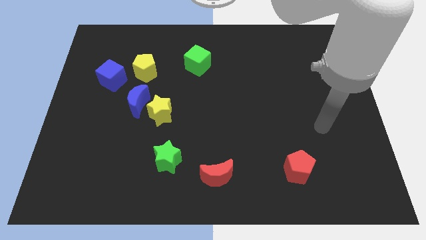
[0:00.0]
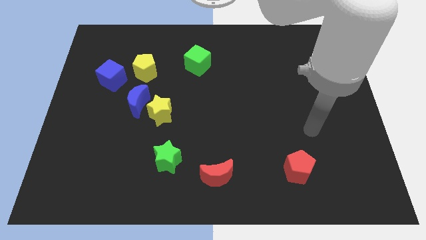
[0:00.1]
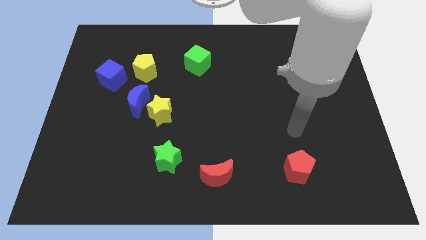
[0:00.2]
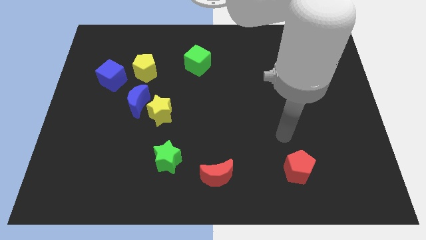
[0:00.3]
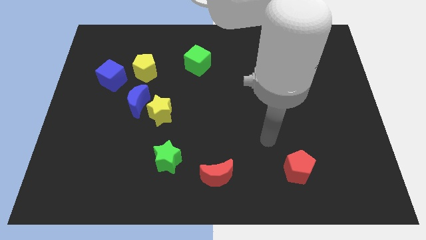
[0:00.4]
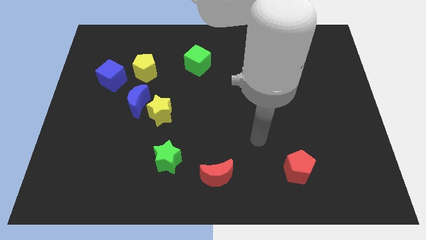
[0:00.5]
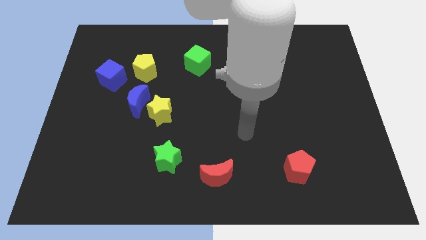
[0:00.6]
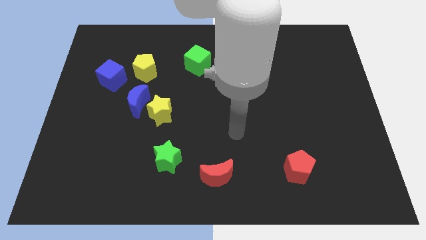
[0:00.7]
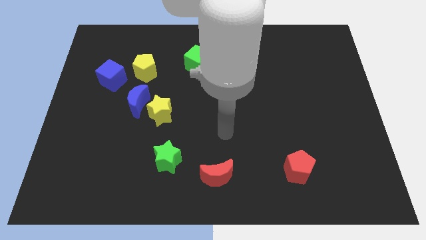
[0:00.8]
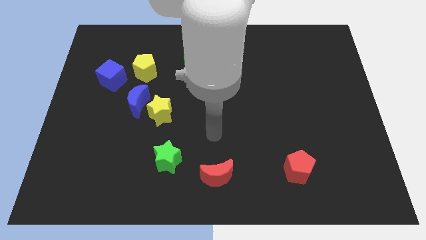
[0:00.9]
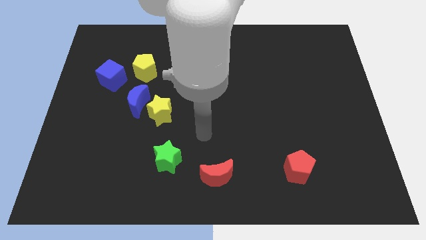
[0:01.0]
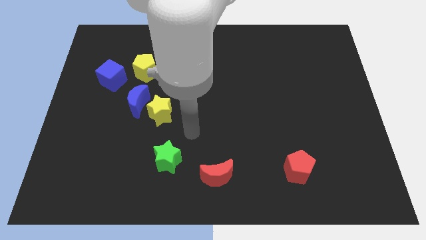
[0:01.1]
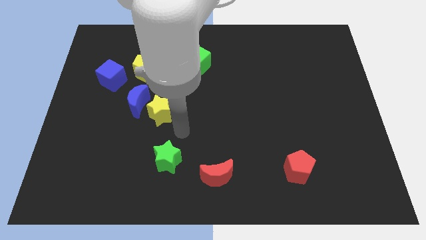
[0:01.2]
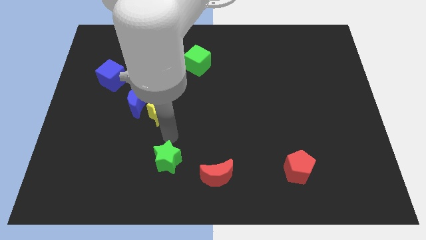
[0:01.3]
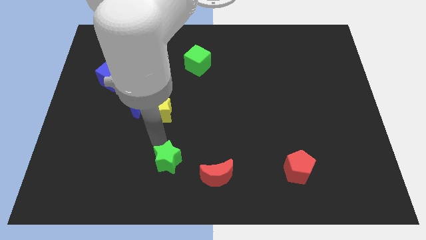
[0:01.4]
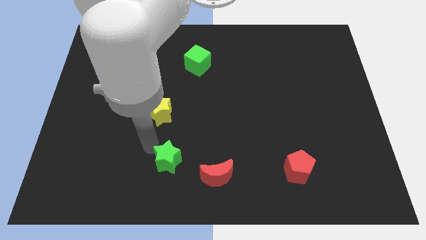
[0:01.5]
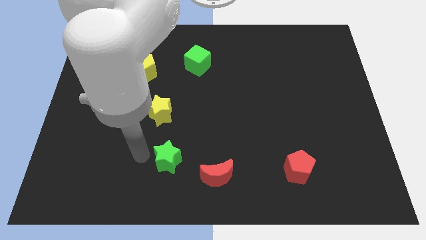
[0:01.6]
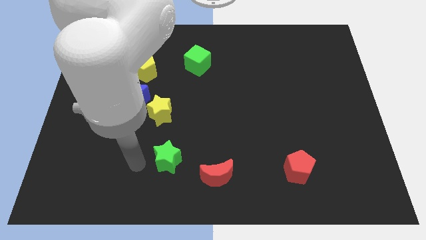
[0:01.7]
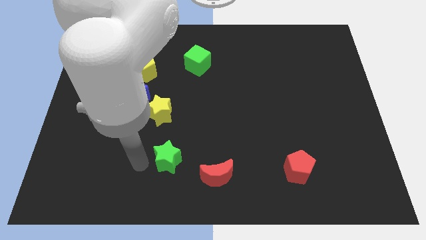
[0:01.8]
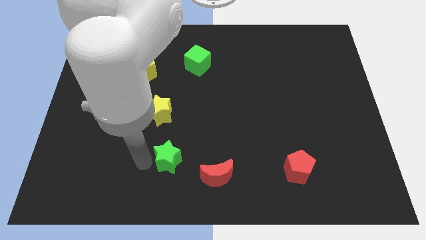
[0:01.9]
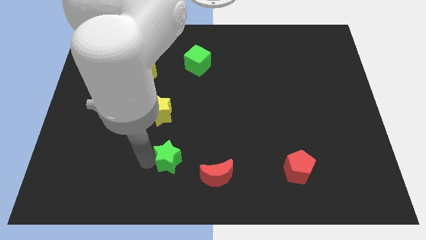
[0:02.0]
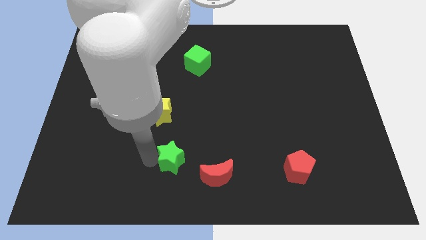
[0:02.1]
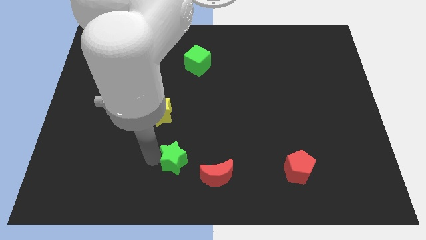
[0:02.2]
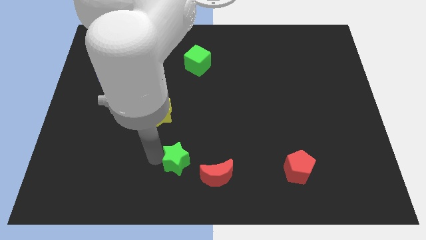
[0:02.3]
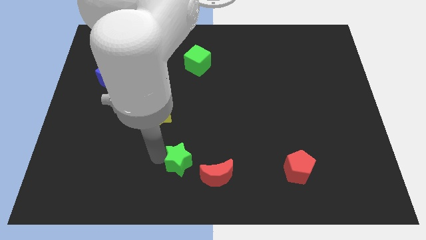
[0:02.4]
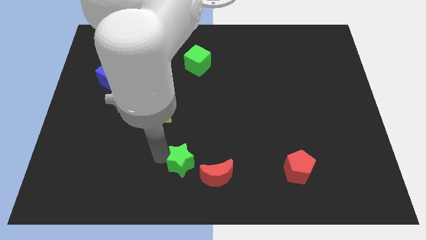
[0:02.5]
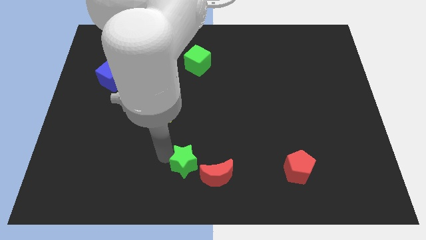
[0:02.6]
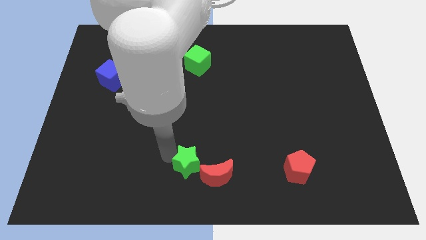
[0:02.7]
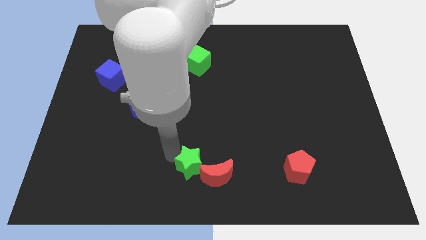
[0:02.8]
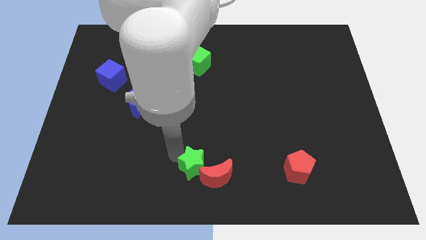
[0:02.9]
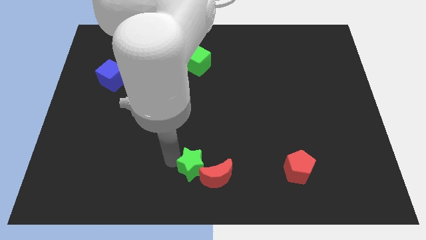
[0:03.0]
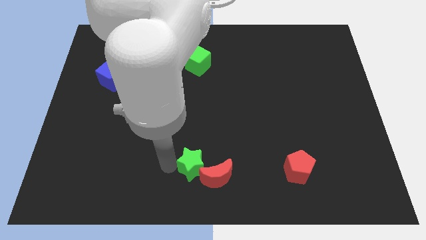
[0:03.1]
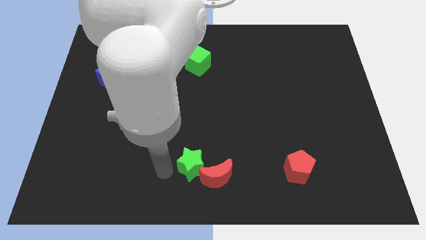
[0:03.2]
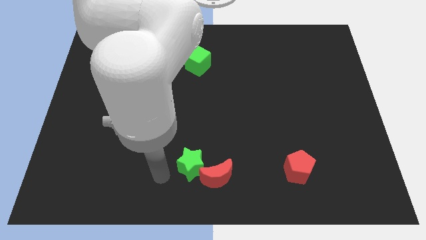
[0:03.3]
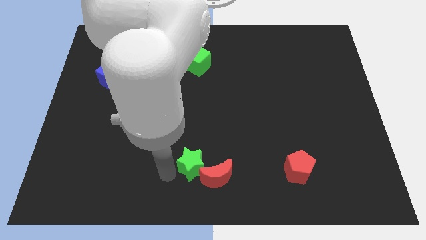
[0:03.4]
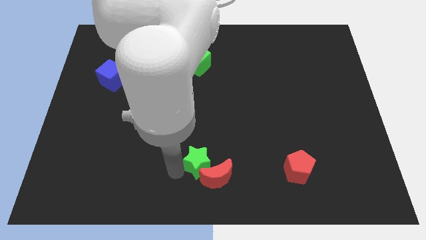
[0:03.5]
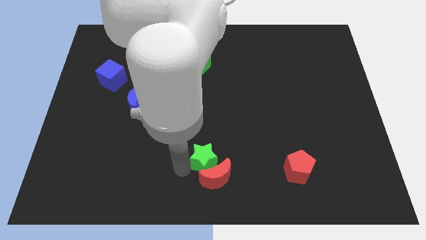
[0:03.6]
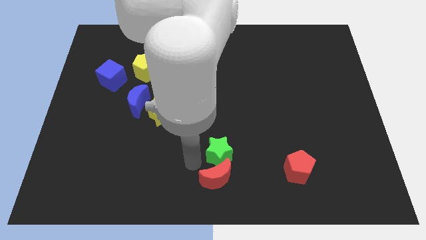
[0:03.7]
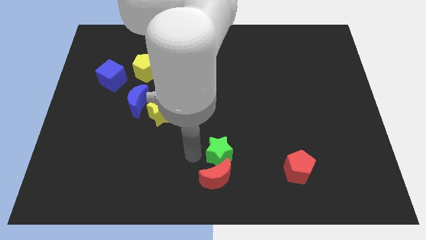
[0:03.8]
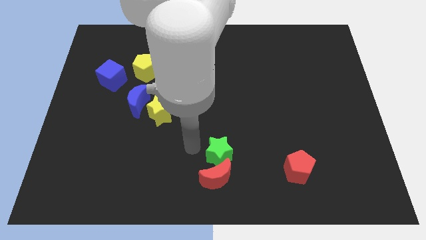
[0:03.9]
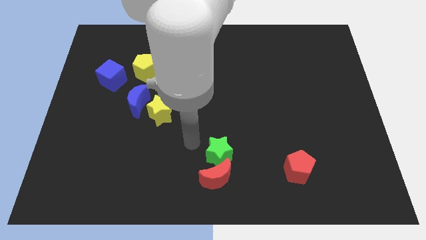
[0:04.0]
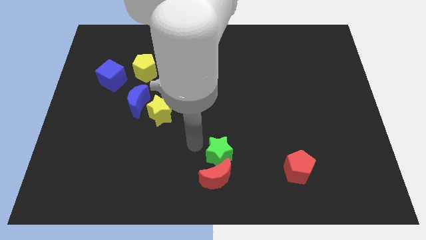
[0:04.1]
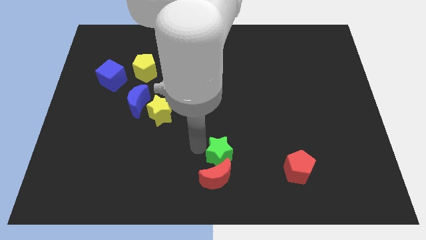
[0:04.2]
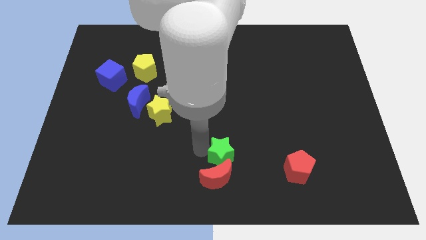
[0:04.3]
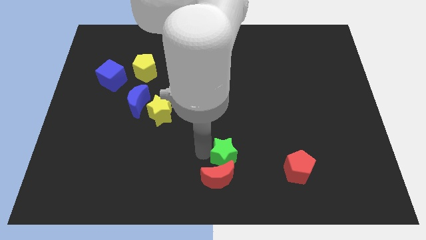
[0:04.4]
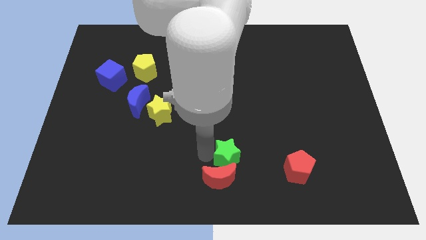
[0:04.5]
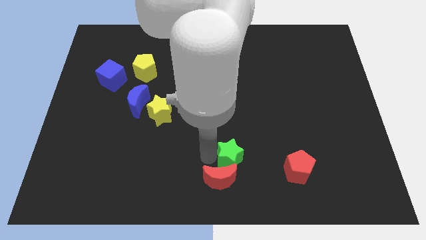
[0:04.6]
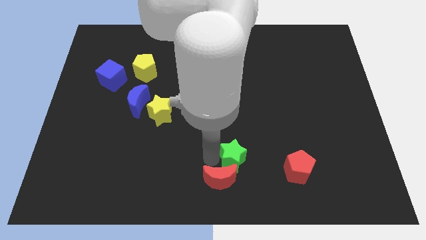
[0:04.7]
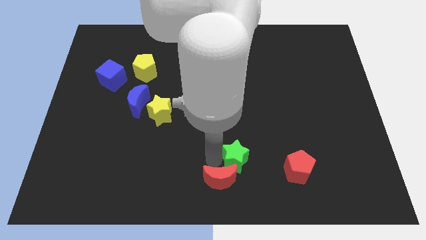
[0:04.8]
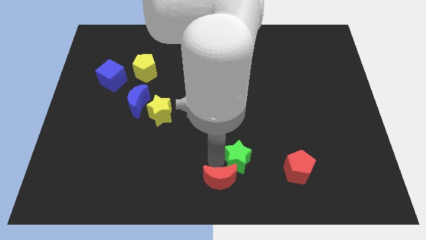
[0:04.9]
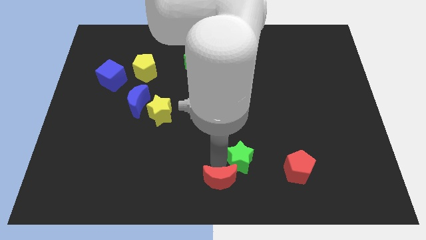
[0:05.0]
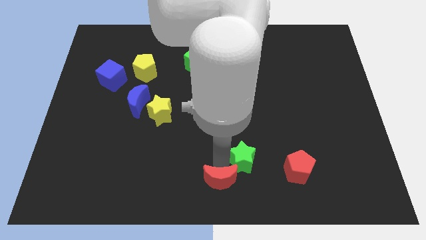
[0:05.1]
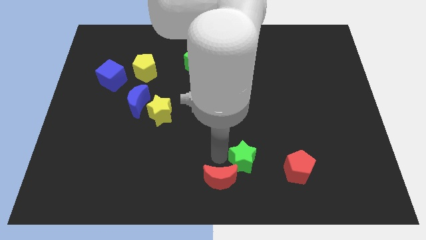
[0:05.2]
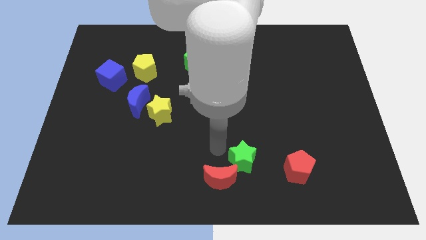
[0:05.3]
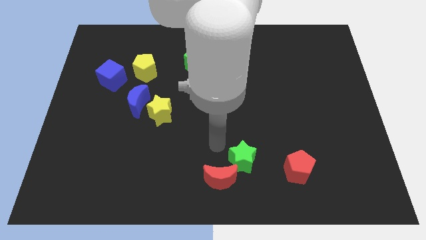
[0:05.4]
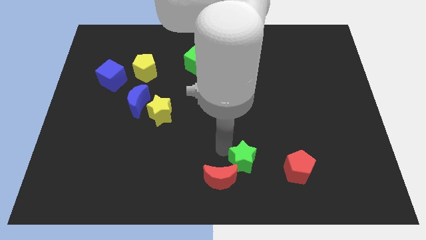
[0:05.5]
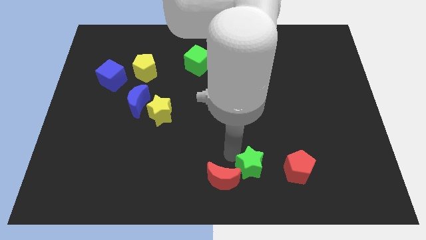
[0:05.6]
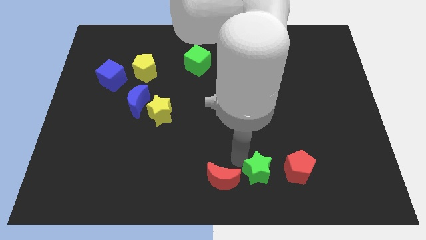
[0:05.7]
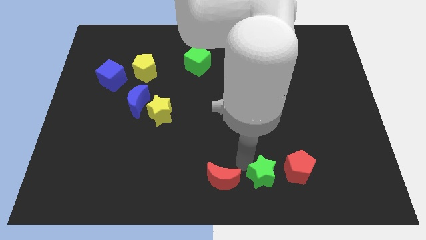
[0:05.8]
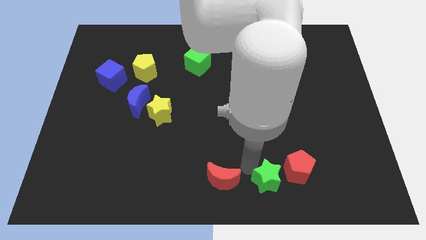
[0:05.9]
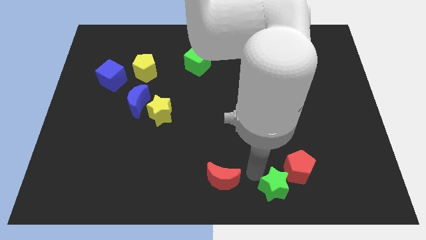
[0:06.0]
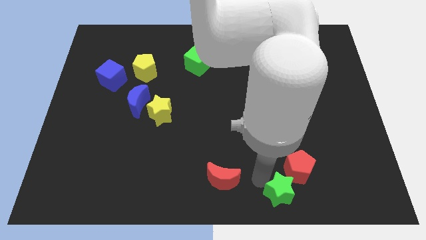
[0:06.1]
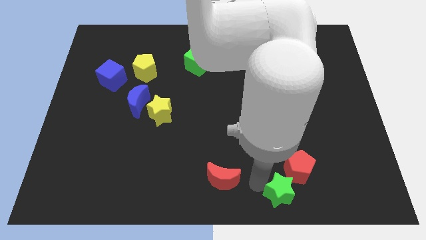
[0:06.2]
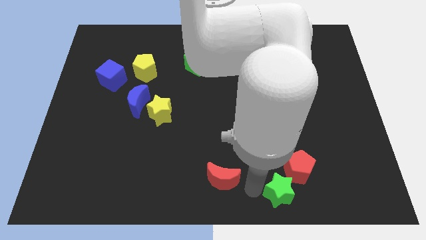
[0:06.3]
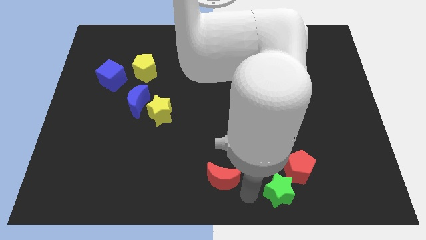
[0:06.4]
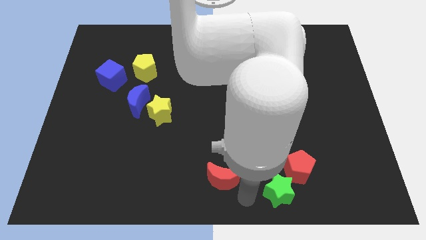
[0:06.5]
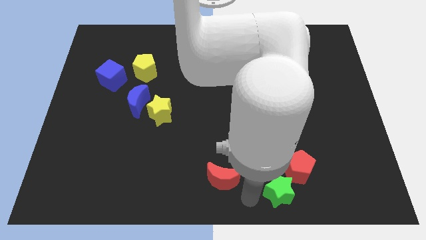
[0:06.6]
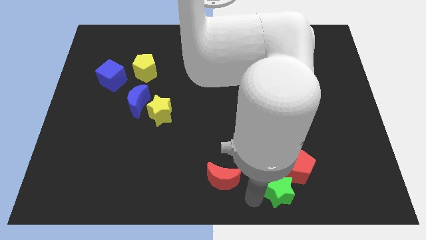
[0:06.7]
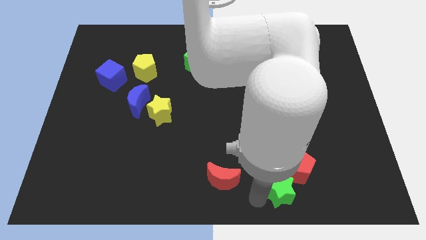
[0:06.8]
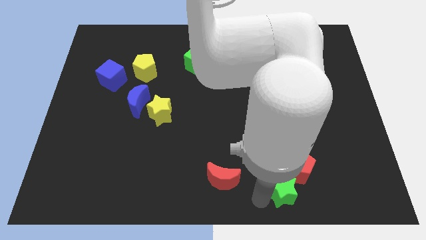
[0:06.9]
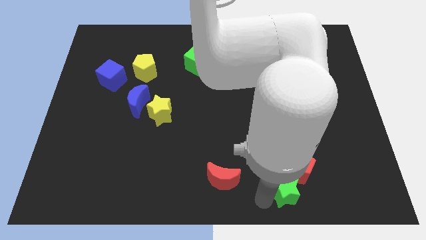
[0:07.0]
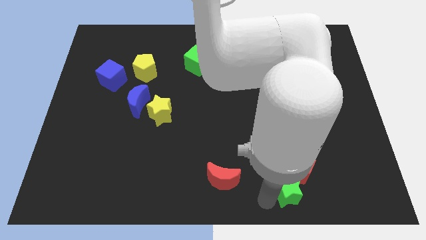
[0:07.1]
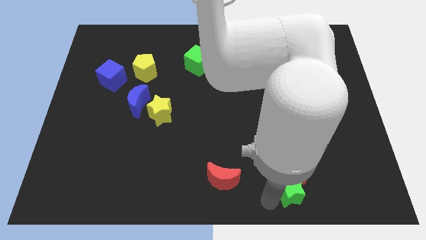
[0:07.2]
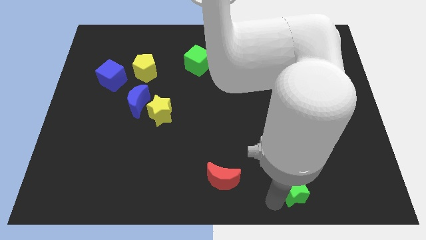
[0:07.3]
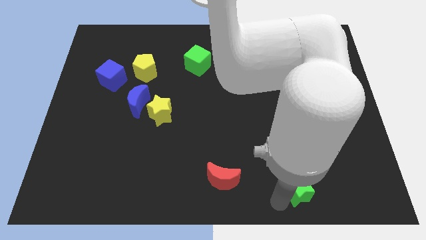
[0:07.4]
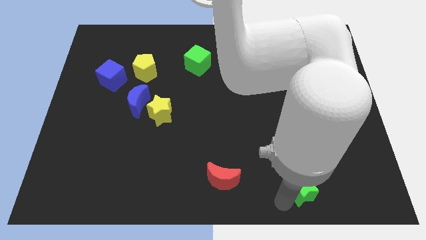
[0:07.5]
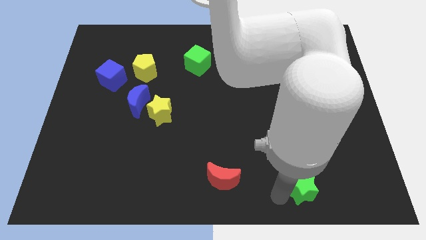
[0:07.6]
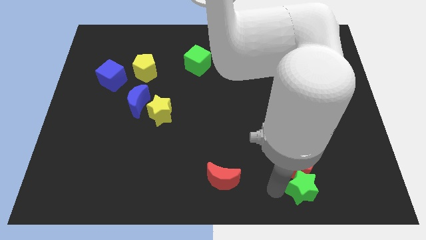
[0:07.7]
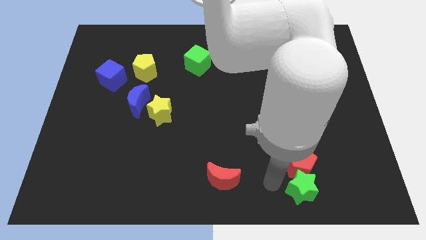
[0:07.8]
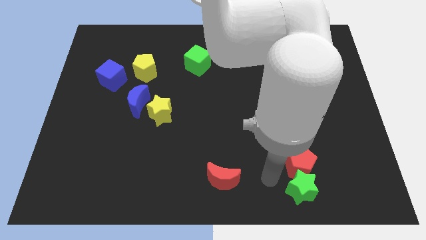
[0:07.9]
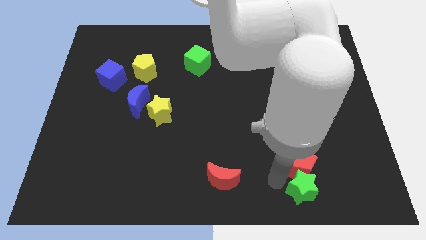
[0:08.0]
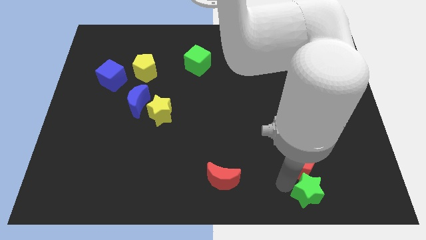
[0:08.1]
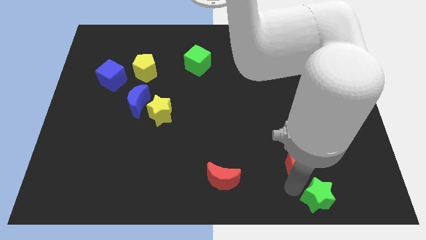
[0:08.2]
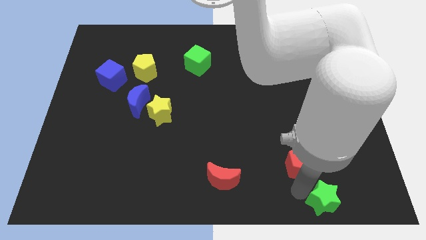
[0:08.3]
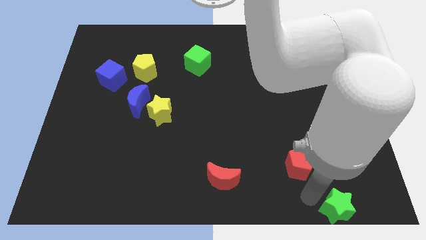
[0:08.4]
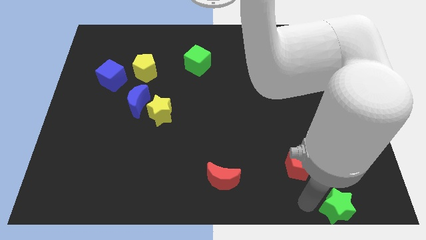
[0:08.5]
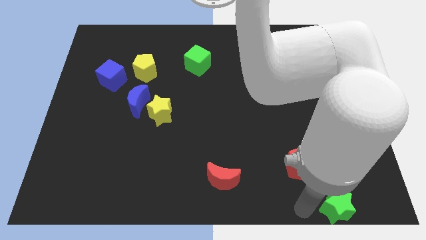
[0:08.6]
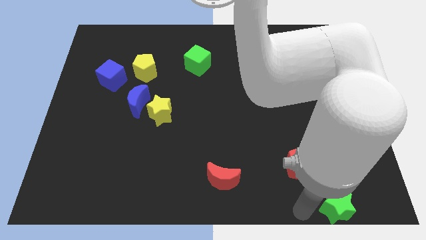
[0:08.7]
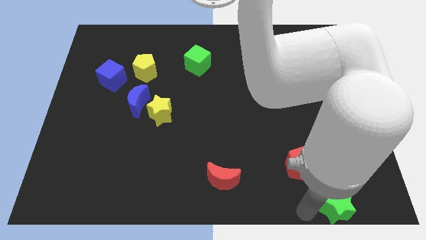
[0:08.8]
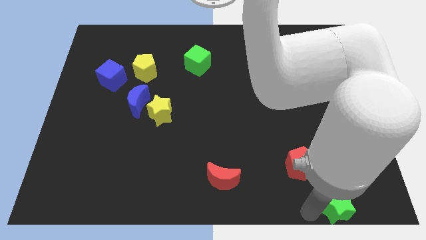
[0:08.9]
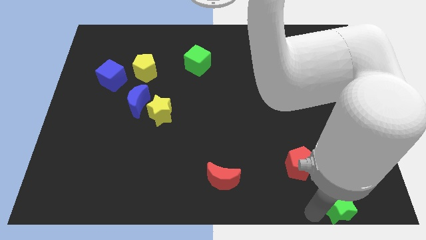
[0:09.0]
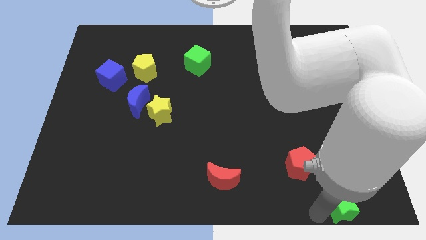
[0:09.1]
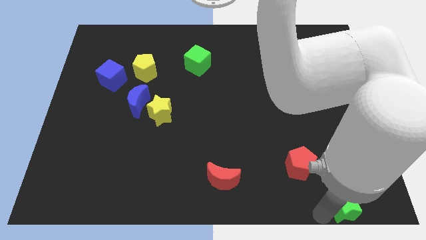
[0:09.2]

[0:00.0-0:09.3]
move the green star to the bottom right of the board
